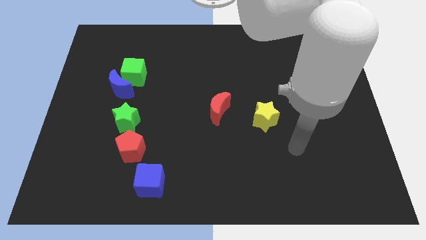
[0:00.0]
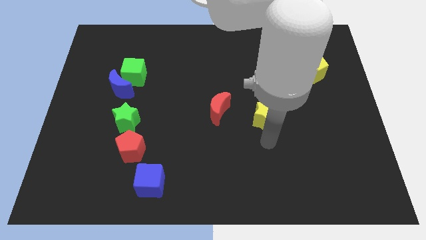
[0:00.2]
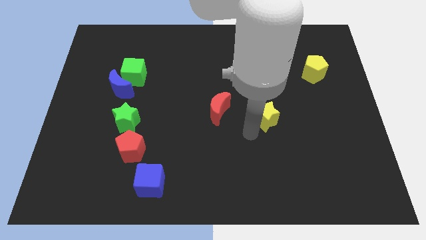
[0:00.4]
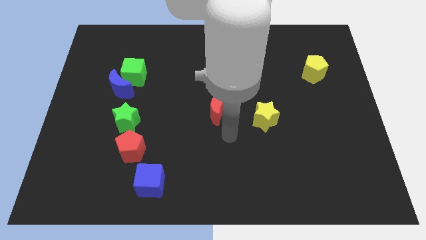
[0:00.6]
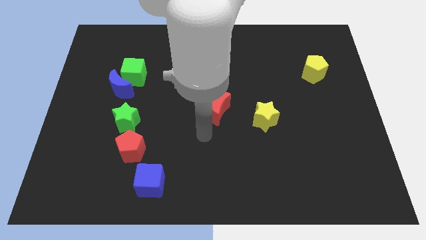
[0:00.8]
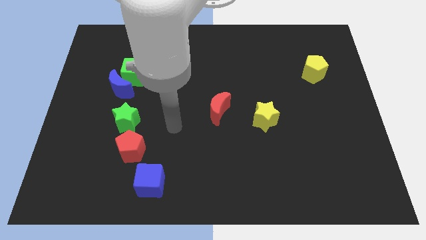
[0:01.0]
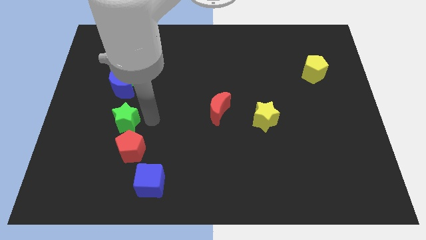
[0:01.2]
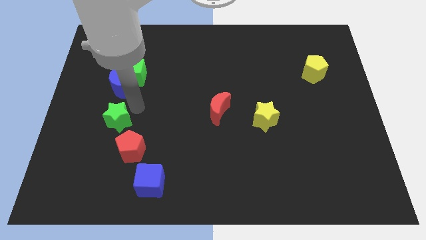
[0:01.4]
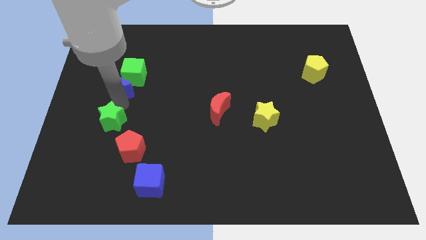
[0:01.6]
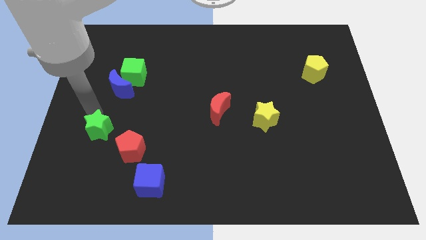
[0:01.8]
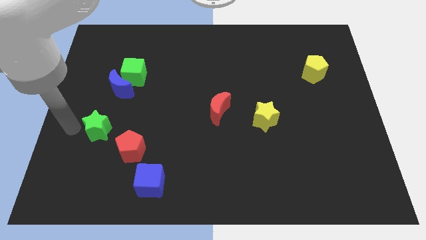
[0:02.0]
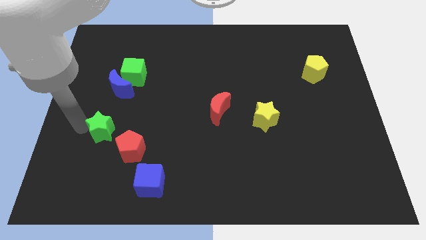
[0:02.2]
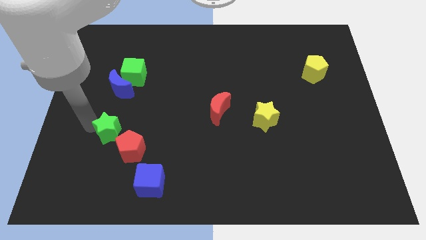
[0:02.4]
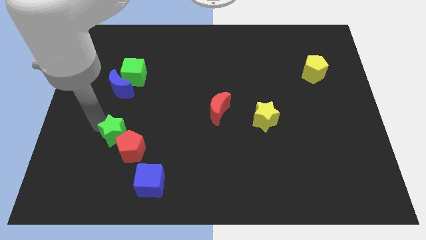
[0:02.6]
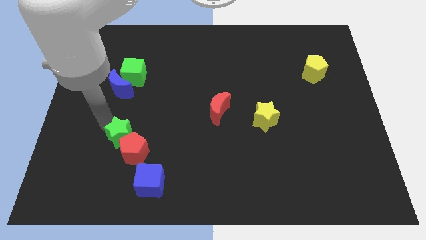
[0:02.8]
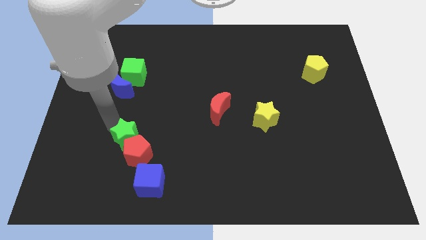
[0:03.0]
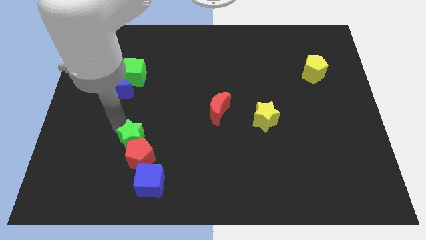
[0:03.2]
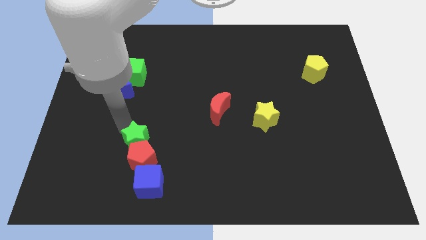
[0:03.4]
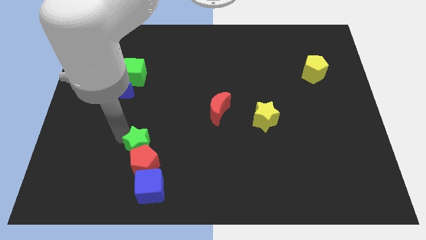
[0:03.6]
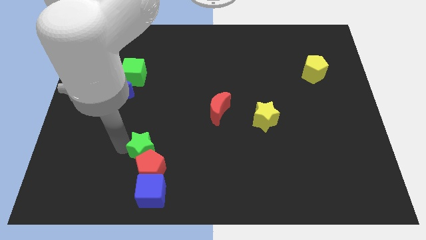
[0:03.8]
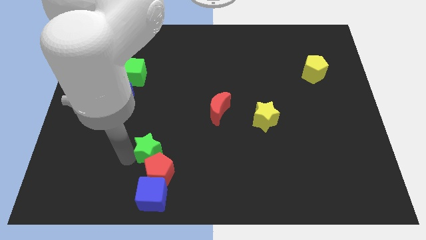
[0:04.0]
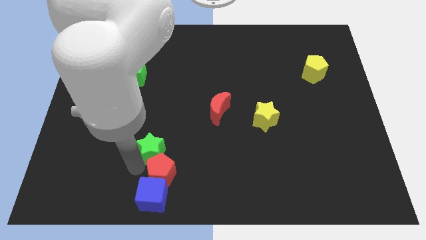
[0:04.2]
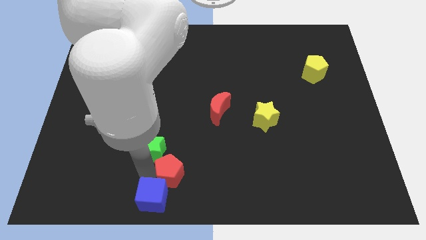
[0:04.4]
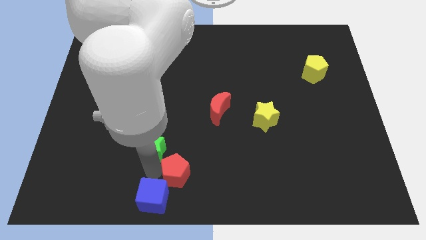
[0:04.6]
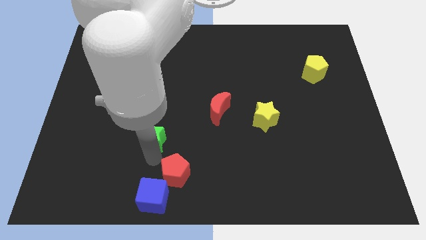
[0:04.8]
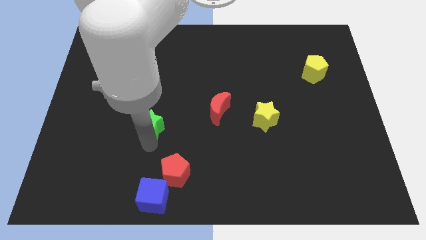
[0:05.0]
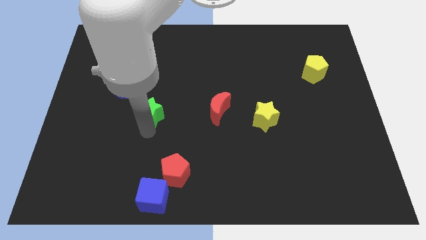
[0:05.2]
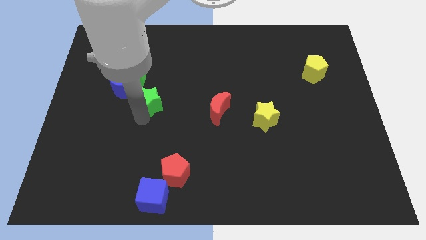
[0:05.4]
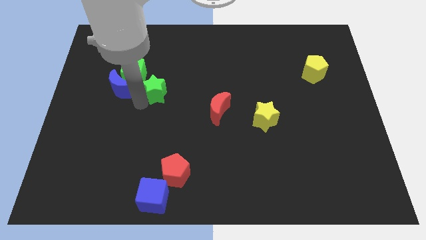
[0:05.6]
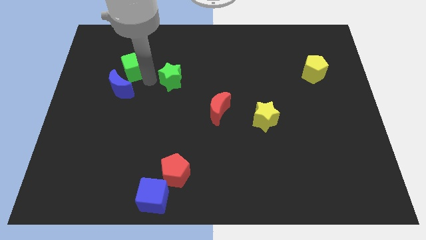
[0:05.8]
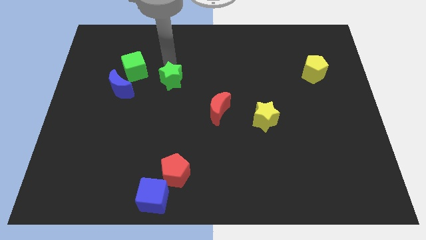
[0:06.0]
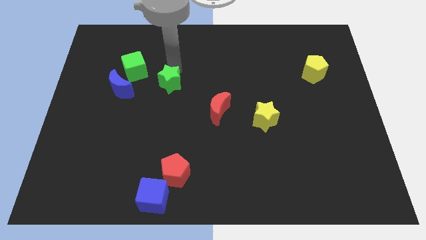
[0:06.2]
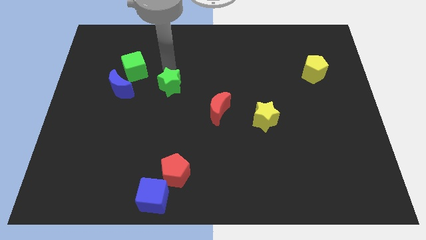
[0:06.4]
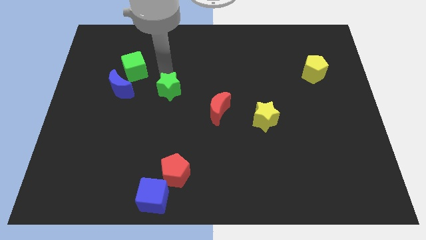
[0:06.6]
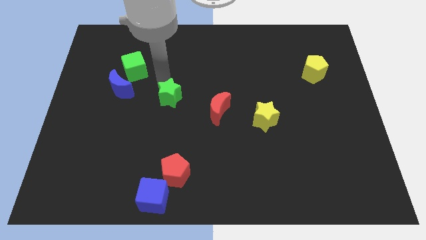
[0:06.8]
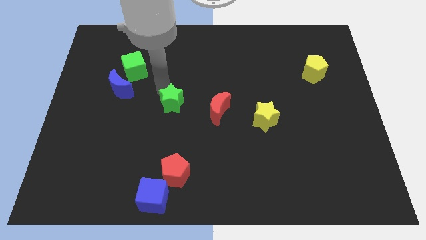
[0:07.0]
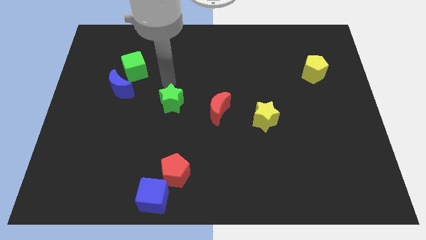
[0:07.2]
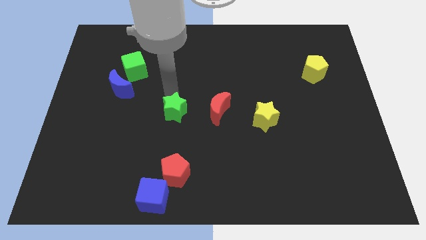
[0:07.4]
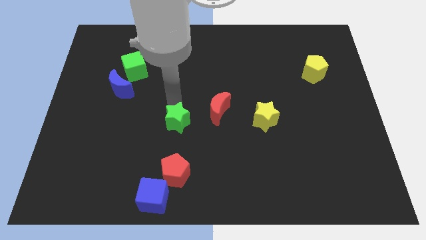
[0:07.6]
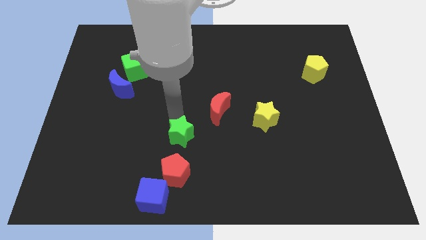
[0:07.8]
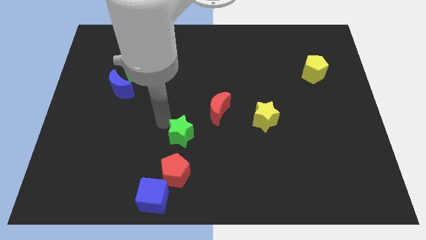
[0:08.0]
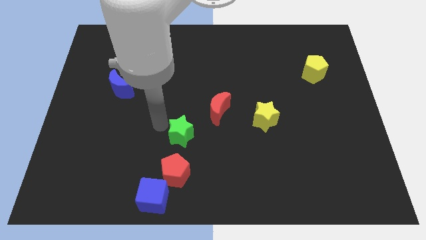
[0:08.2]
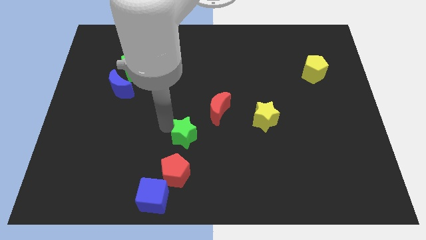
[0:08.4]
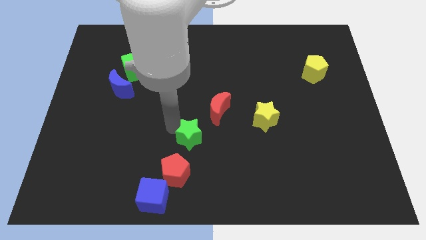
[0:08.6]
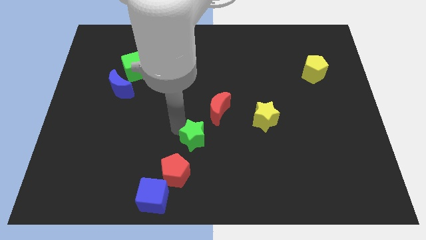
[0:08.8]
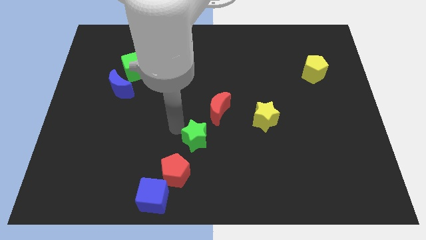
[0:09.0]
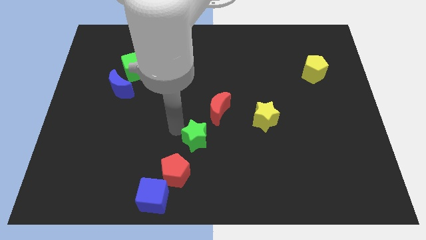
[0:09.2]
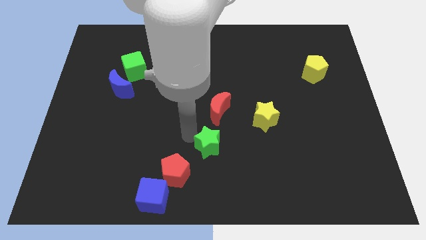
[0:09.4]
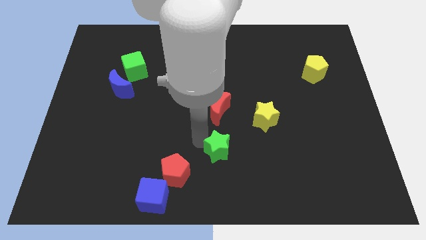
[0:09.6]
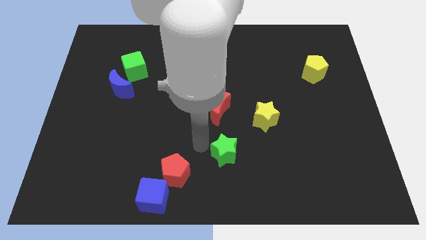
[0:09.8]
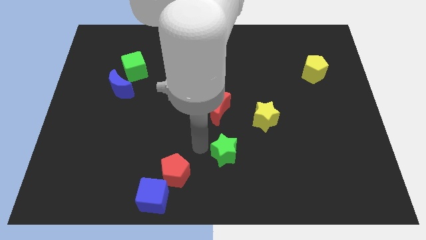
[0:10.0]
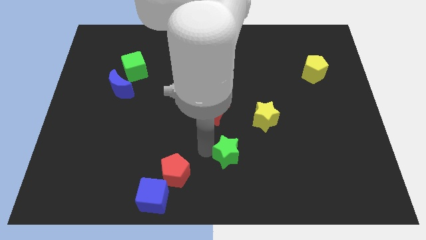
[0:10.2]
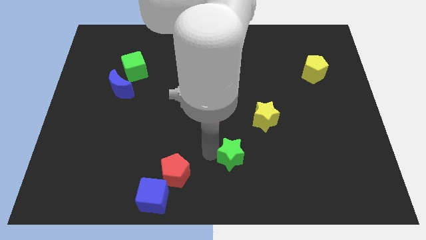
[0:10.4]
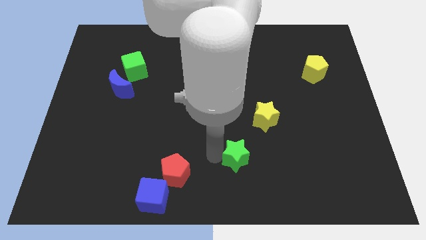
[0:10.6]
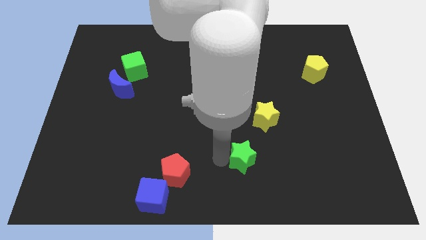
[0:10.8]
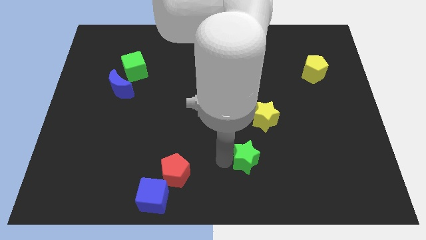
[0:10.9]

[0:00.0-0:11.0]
move the green star to the bottom side of the yellow star

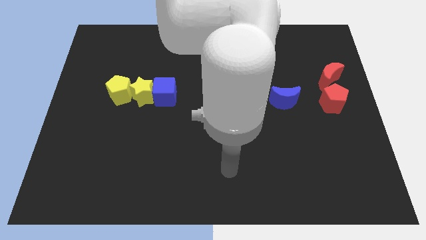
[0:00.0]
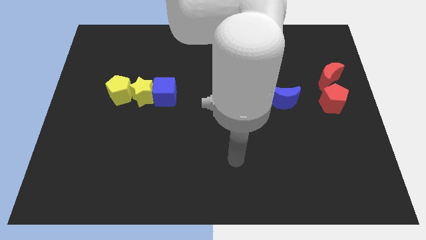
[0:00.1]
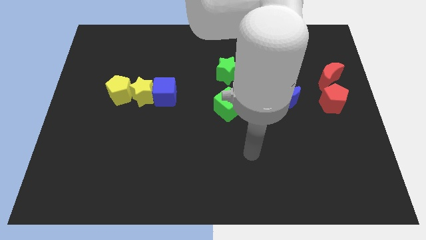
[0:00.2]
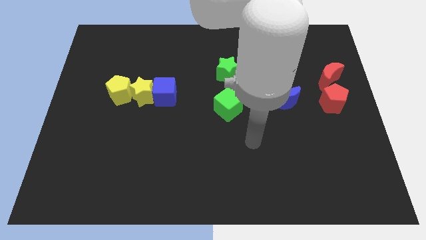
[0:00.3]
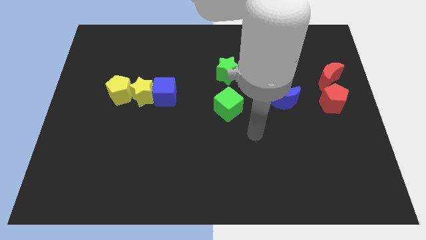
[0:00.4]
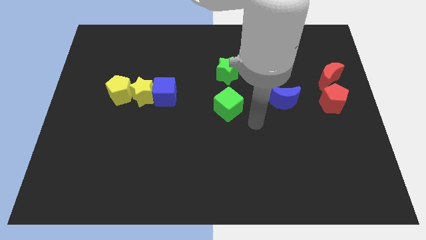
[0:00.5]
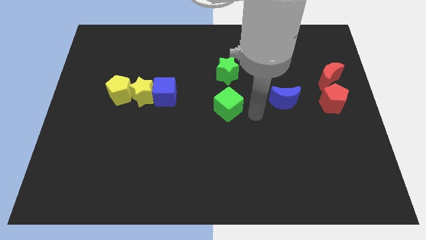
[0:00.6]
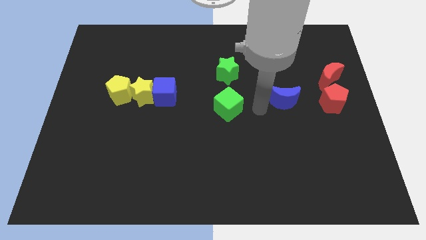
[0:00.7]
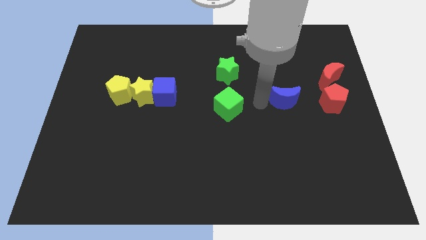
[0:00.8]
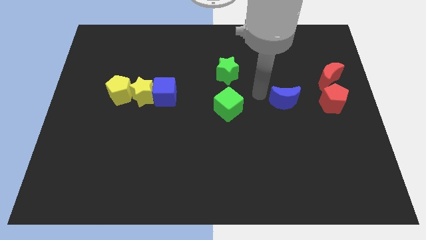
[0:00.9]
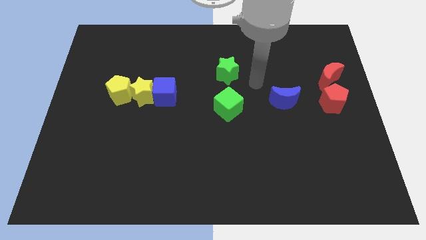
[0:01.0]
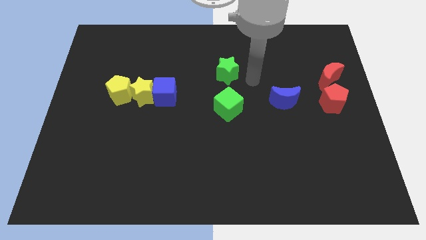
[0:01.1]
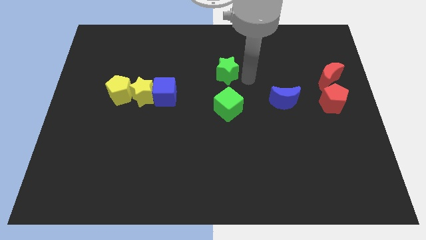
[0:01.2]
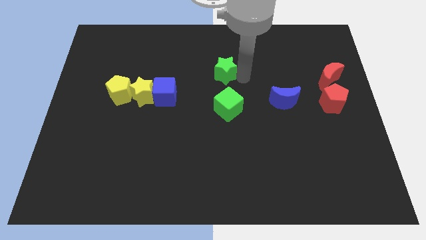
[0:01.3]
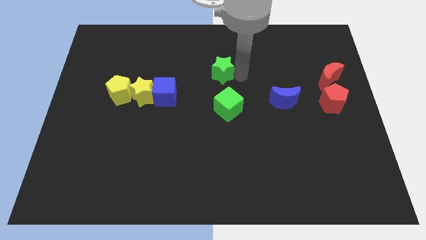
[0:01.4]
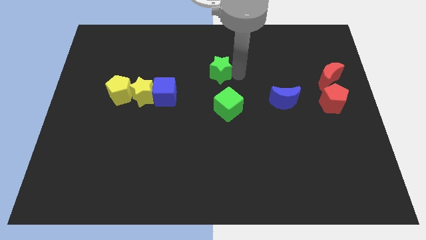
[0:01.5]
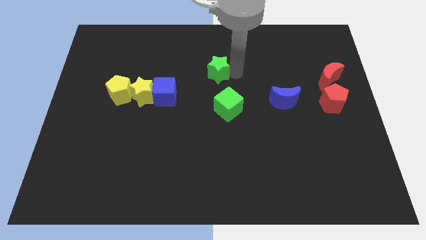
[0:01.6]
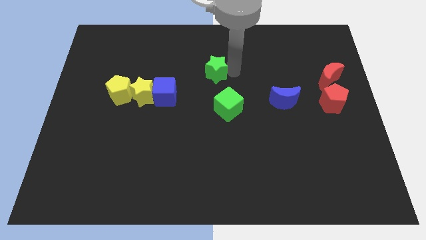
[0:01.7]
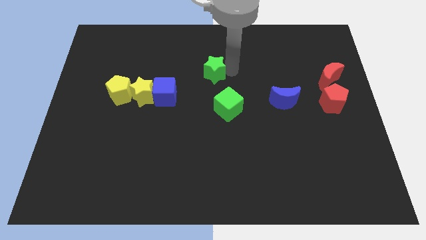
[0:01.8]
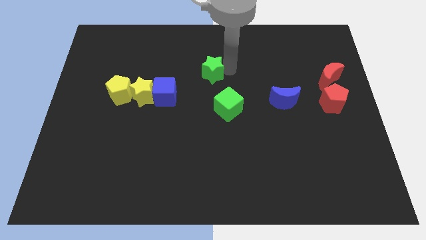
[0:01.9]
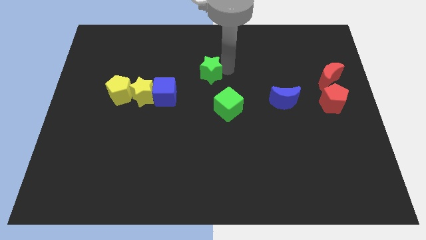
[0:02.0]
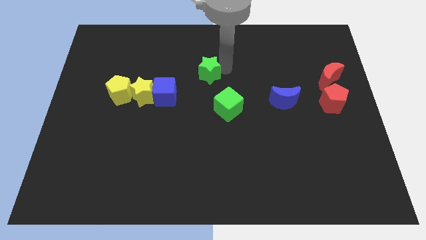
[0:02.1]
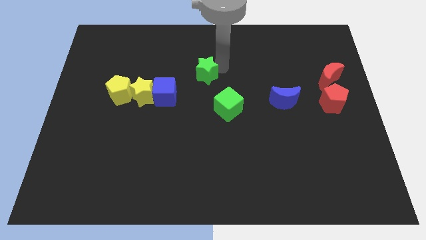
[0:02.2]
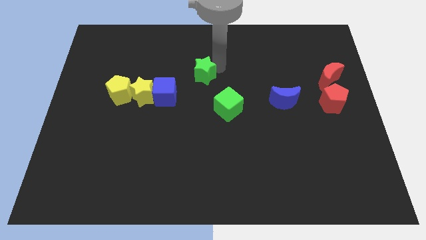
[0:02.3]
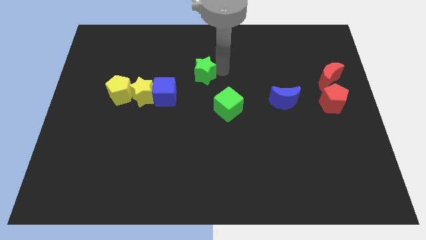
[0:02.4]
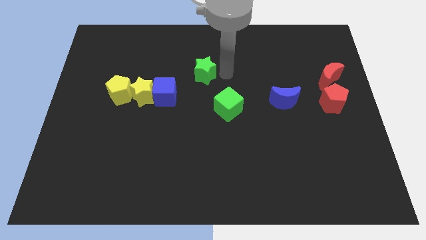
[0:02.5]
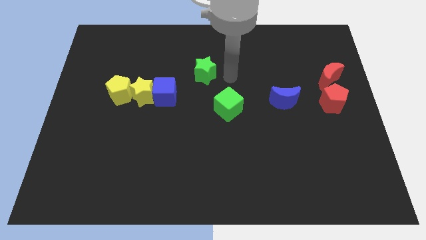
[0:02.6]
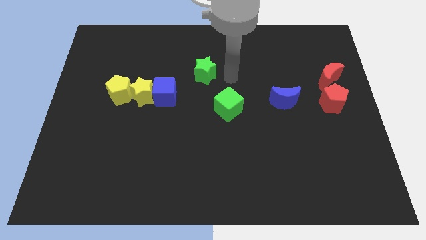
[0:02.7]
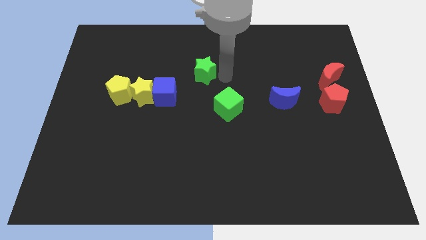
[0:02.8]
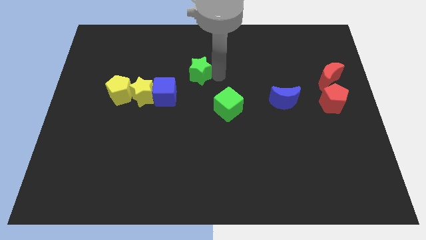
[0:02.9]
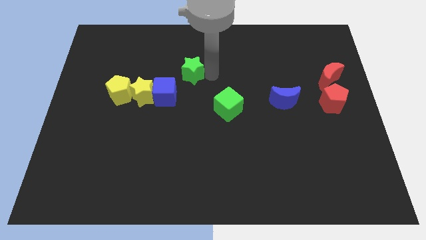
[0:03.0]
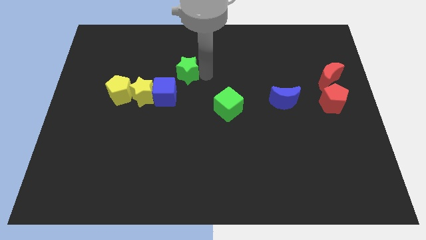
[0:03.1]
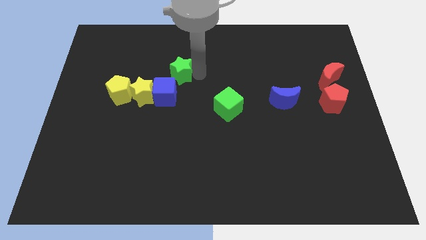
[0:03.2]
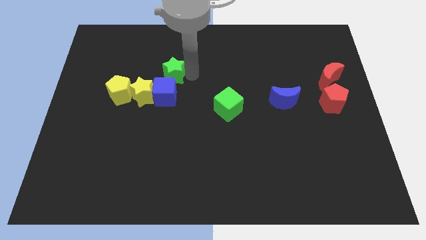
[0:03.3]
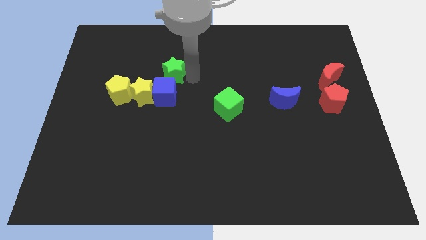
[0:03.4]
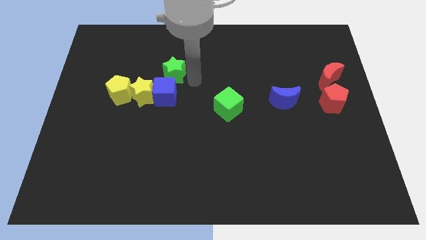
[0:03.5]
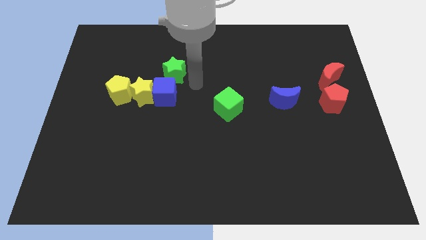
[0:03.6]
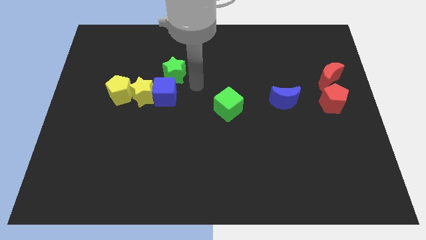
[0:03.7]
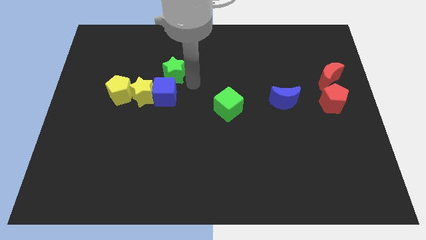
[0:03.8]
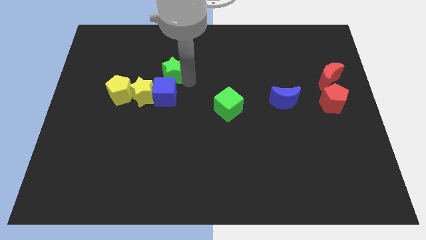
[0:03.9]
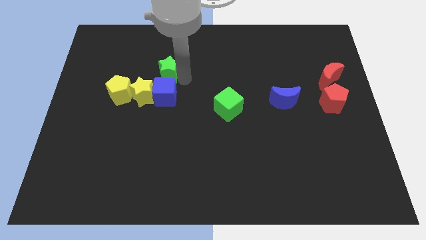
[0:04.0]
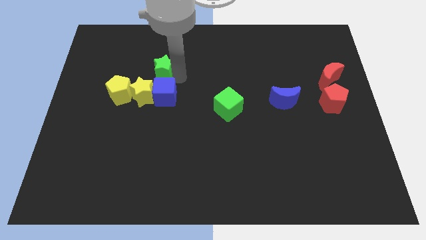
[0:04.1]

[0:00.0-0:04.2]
put the green star to the top side of the yellow star
